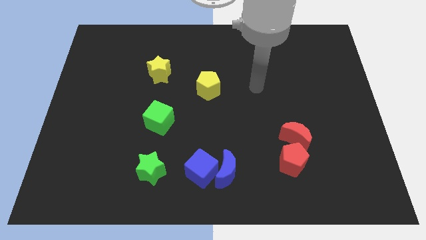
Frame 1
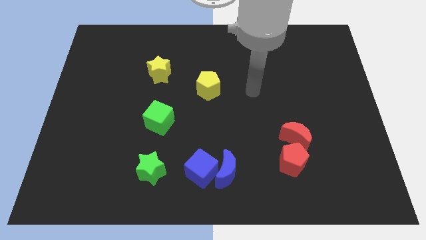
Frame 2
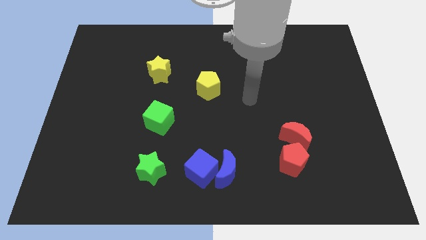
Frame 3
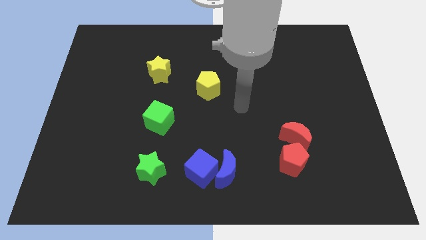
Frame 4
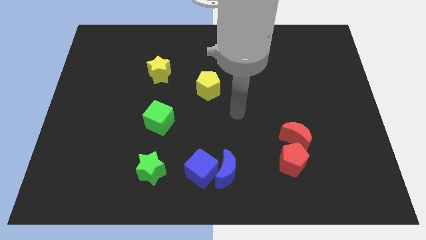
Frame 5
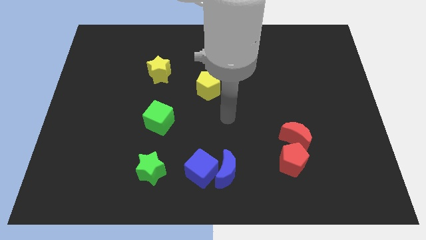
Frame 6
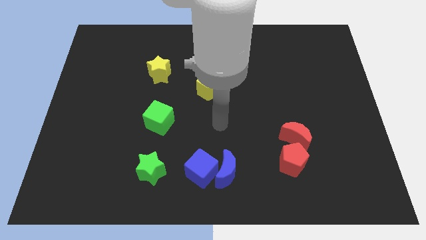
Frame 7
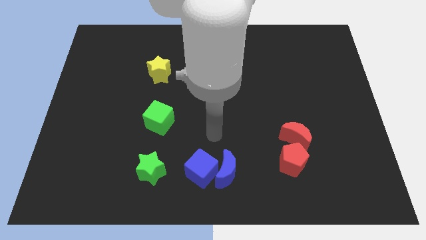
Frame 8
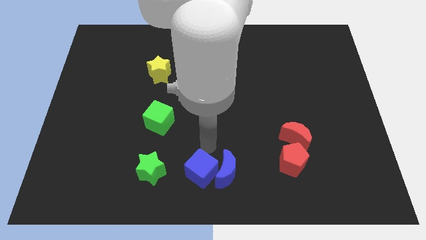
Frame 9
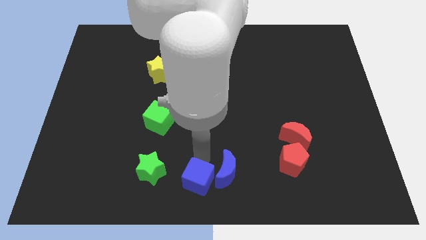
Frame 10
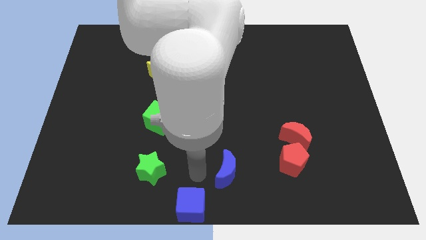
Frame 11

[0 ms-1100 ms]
move the blue moon away from the blue cube

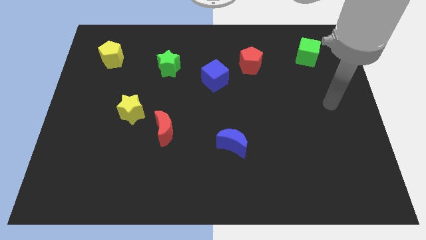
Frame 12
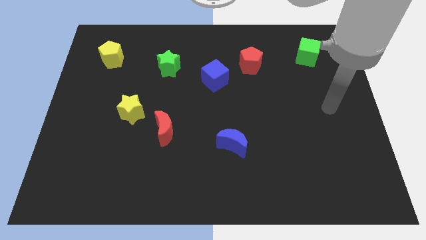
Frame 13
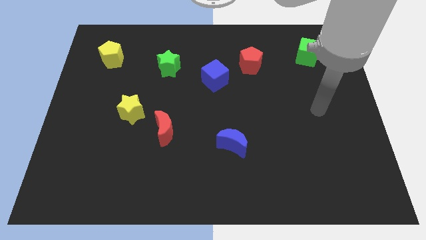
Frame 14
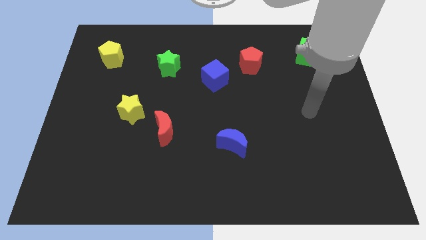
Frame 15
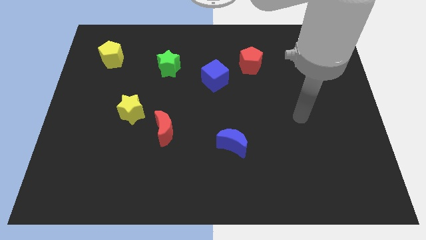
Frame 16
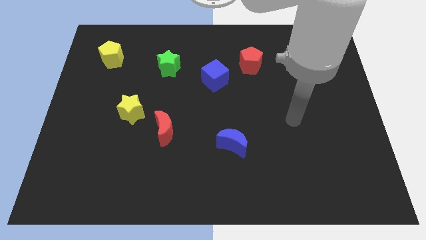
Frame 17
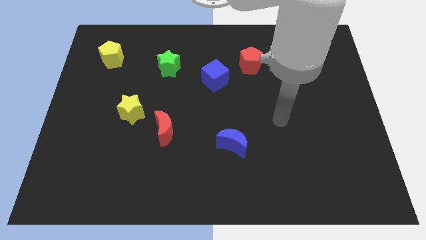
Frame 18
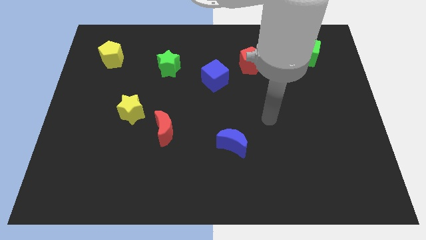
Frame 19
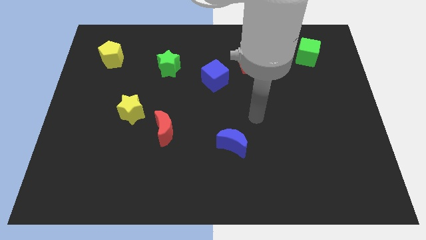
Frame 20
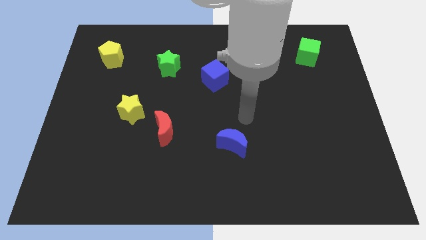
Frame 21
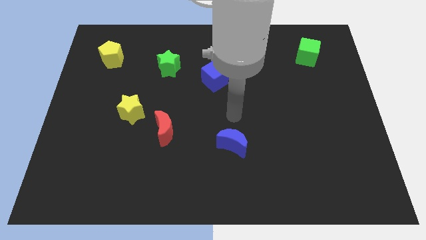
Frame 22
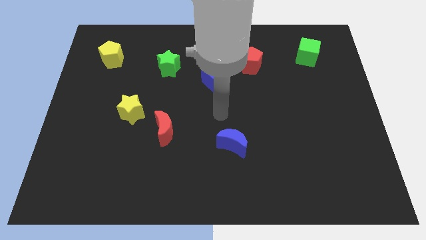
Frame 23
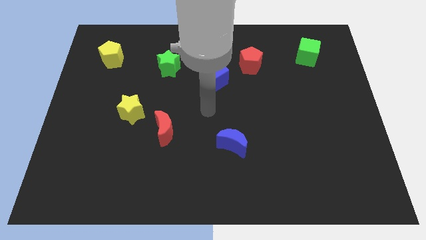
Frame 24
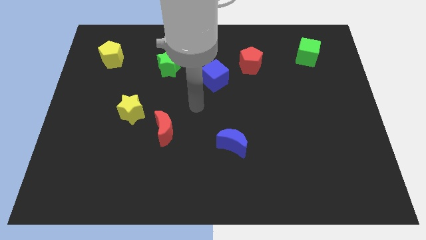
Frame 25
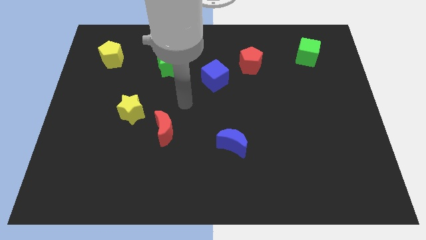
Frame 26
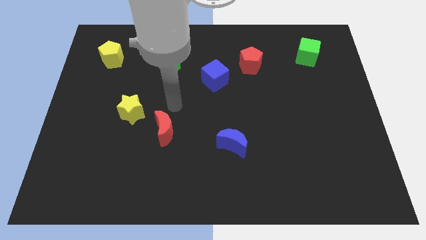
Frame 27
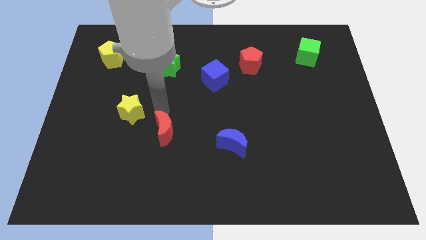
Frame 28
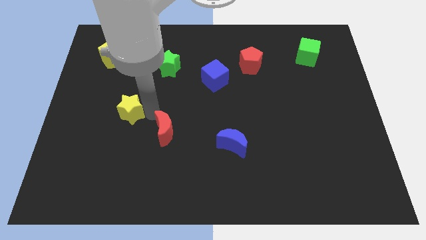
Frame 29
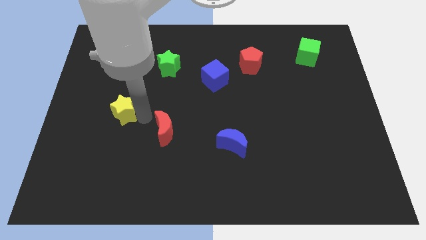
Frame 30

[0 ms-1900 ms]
separate the red moon from the yellow star

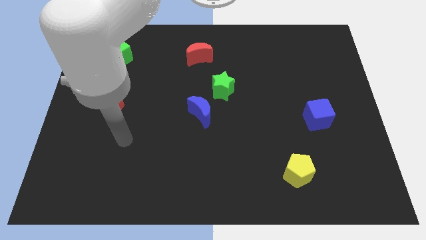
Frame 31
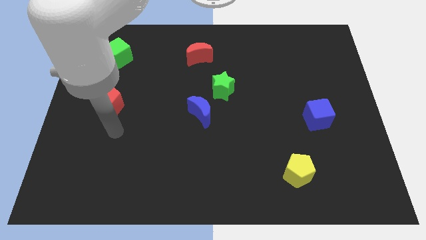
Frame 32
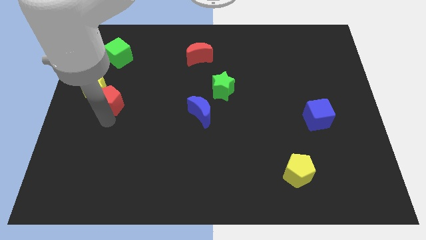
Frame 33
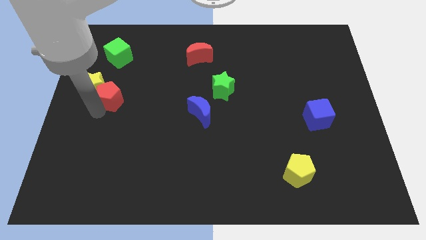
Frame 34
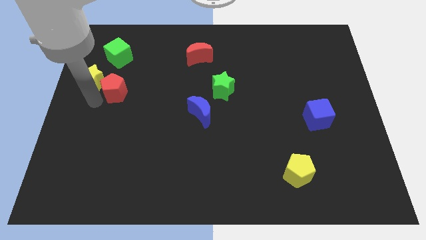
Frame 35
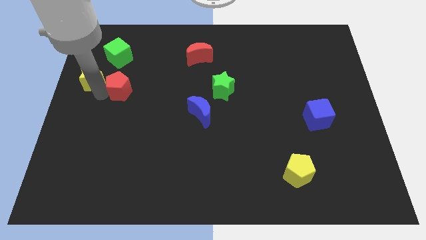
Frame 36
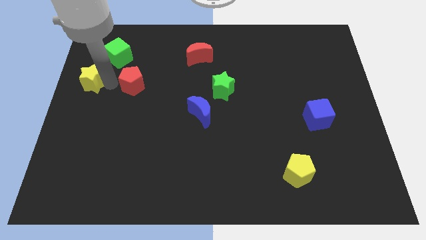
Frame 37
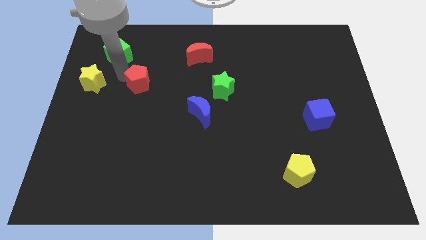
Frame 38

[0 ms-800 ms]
separate the red pentagon from the yellow star

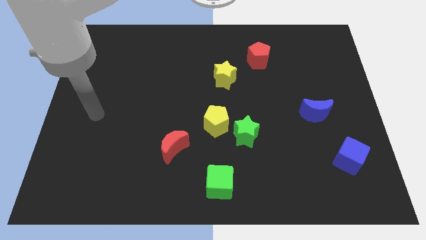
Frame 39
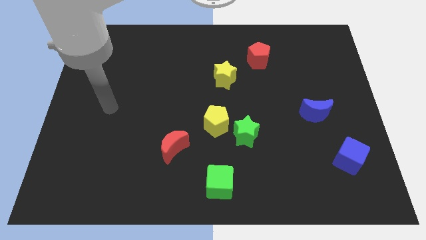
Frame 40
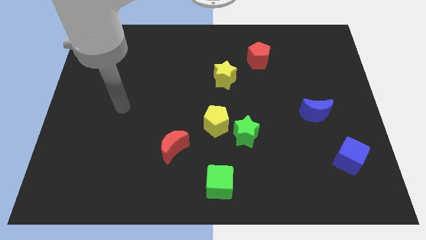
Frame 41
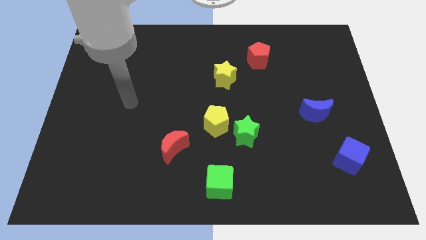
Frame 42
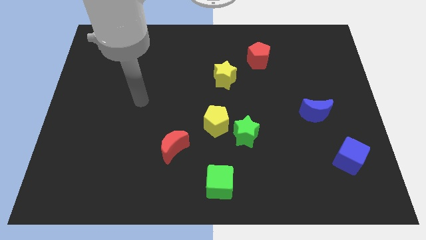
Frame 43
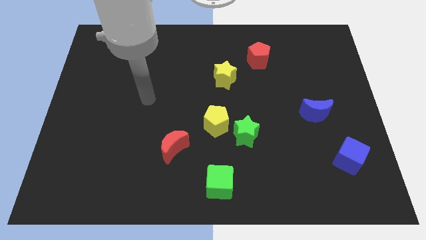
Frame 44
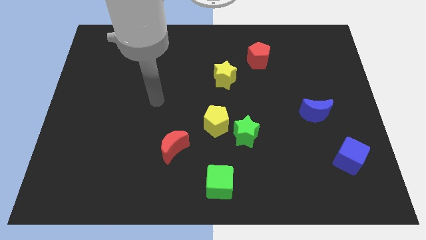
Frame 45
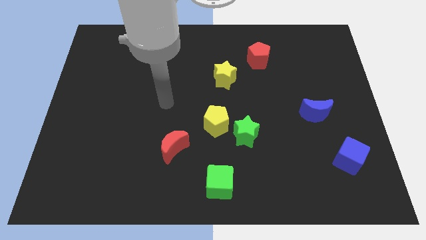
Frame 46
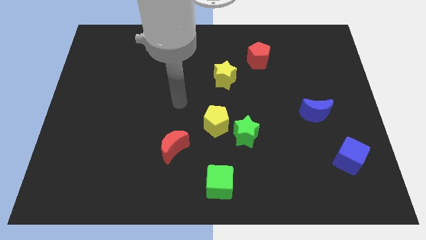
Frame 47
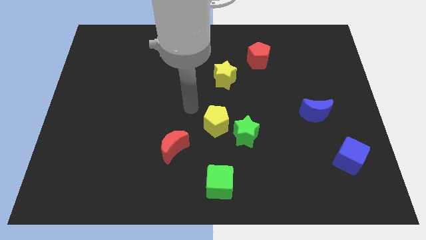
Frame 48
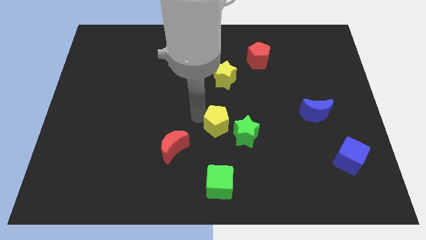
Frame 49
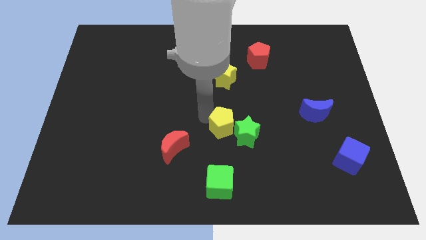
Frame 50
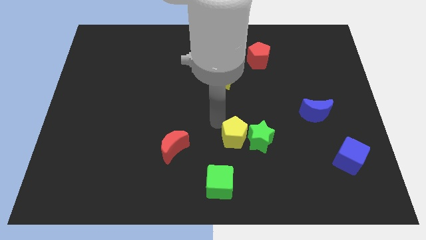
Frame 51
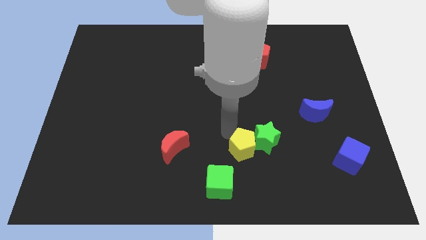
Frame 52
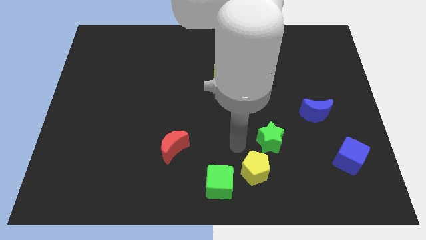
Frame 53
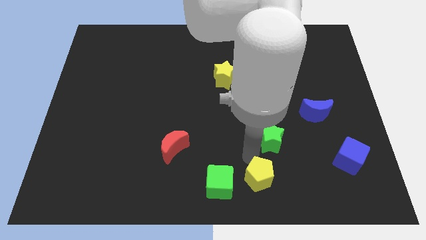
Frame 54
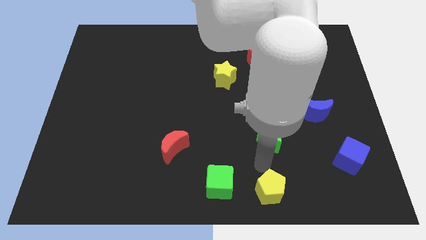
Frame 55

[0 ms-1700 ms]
separate the green star from the yellow pentagon

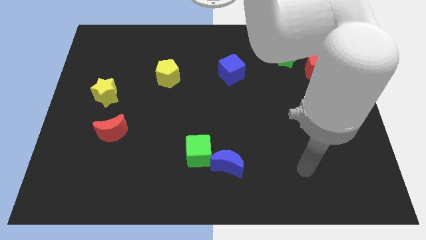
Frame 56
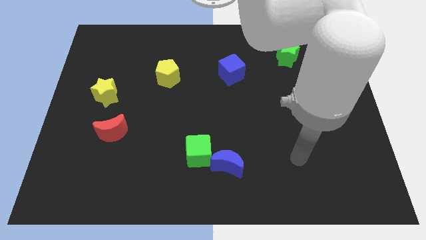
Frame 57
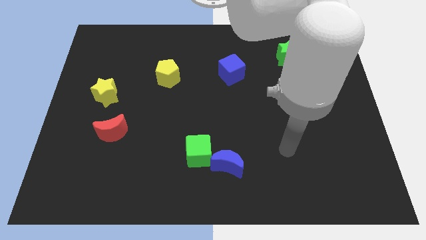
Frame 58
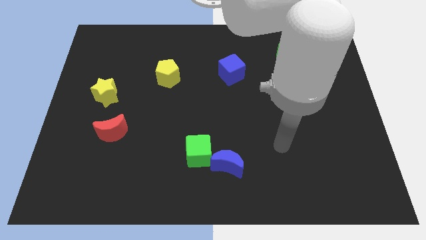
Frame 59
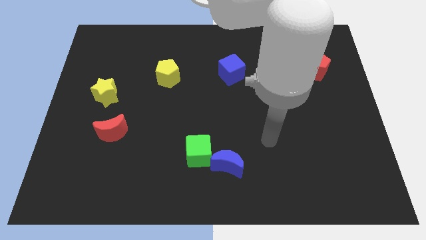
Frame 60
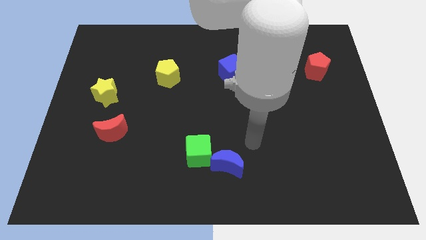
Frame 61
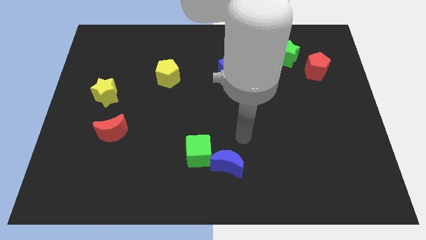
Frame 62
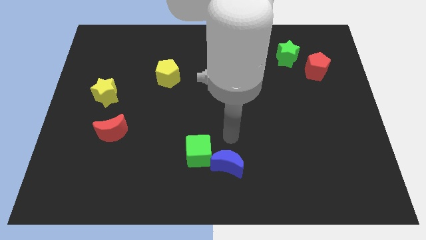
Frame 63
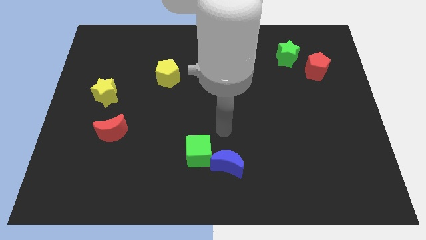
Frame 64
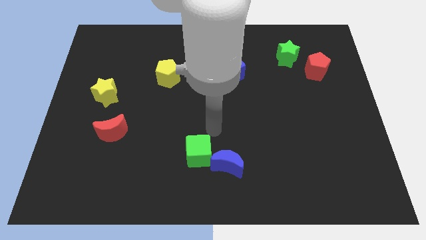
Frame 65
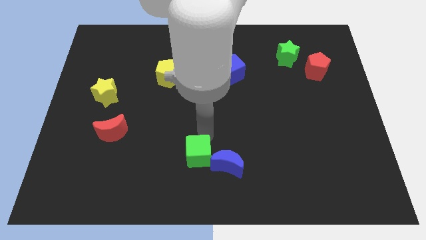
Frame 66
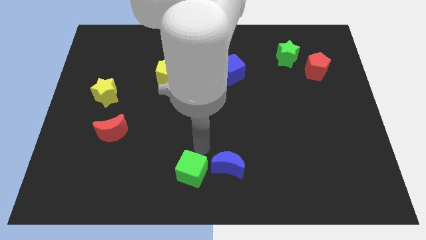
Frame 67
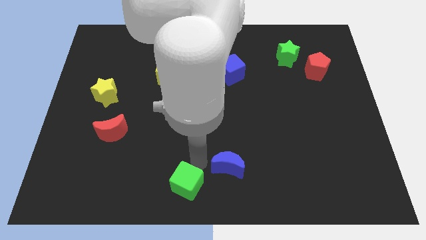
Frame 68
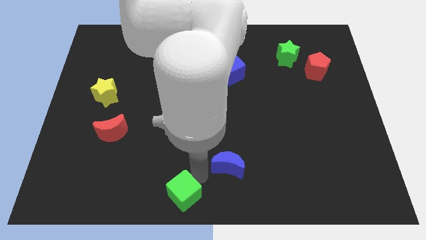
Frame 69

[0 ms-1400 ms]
move the blue moon away from the green cube

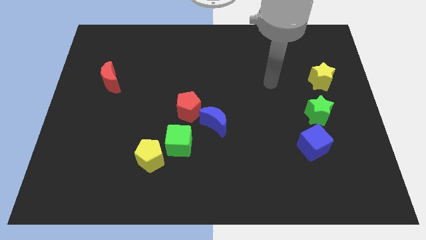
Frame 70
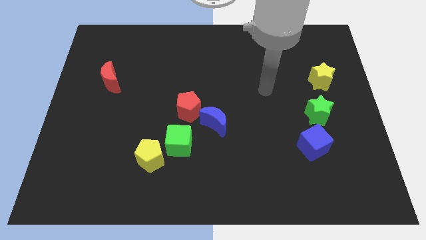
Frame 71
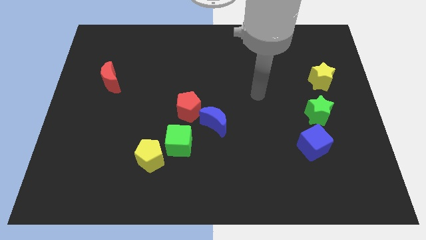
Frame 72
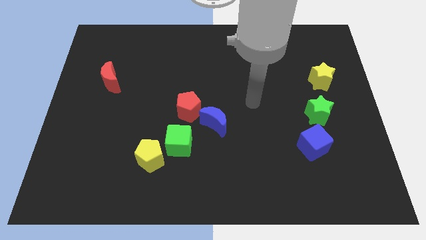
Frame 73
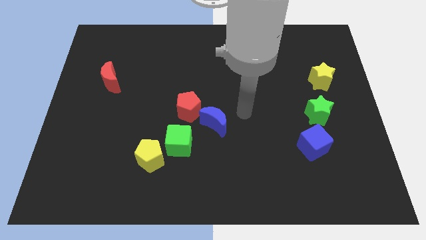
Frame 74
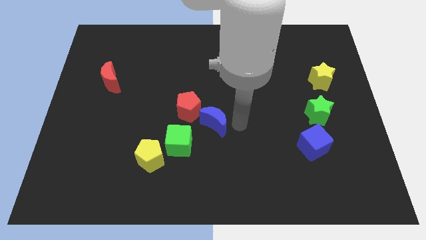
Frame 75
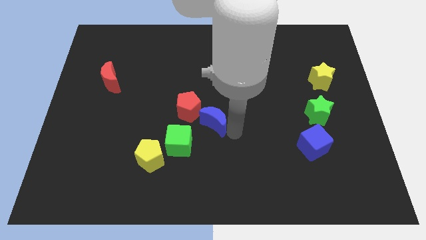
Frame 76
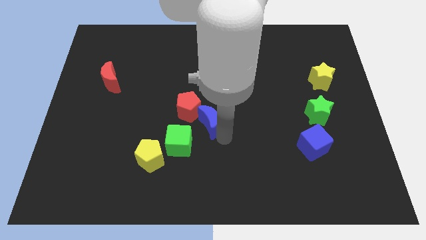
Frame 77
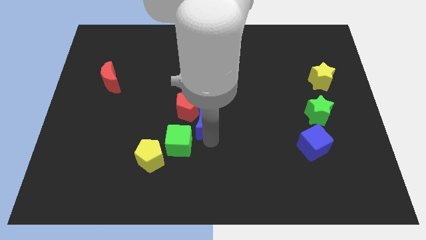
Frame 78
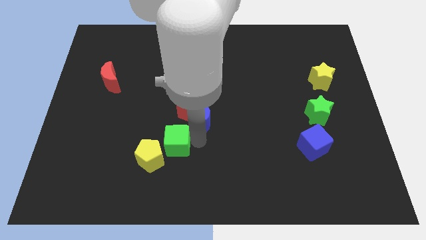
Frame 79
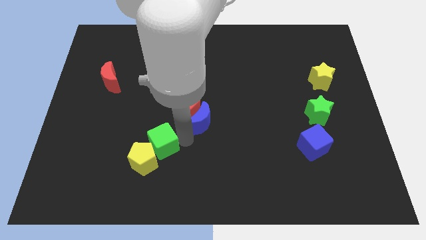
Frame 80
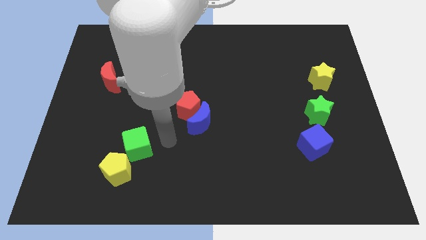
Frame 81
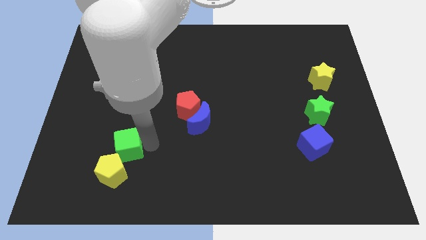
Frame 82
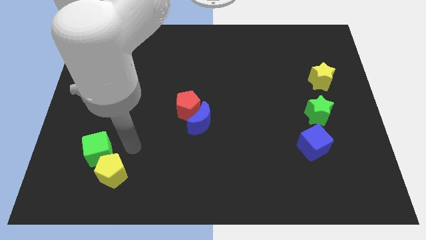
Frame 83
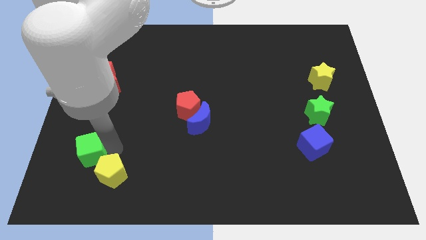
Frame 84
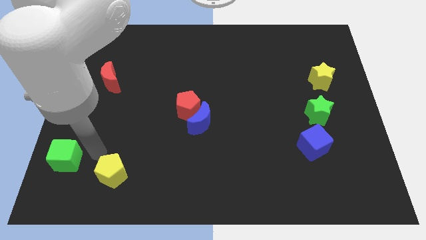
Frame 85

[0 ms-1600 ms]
pull the yellow pentagon apart from the green cube

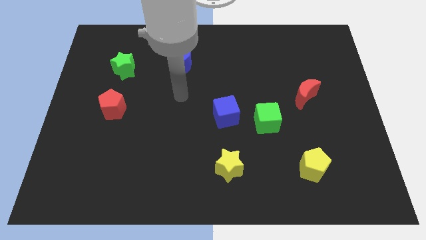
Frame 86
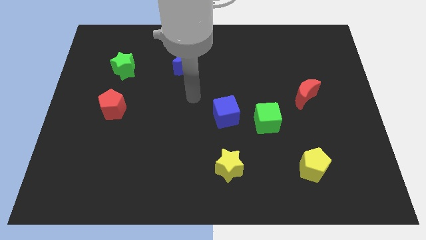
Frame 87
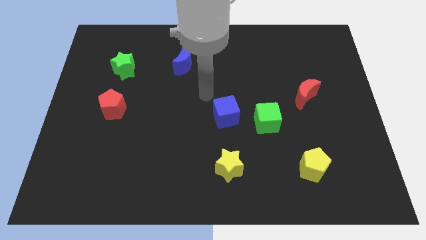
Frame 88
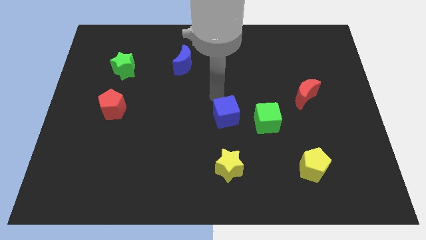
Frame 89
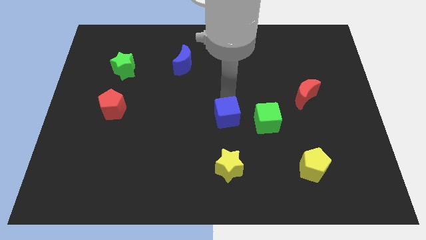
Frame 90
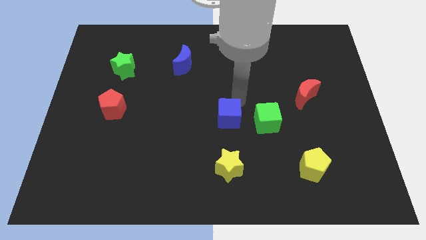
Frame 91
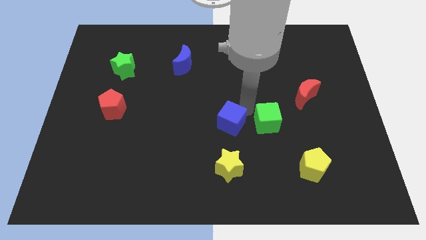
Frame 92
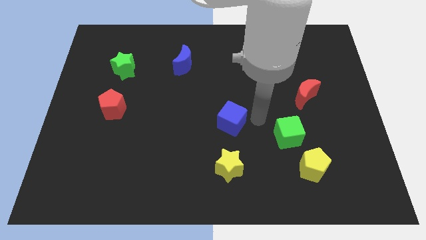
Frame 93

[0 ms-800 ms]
pull the blue cube apart from the green cube

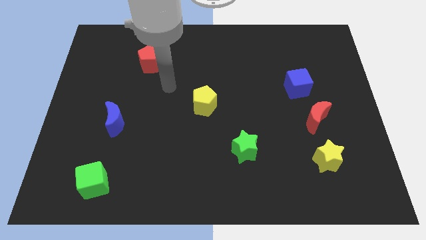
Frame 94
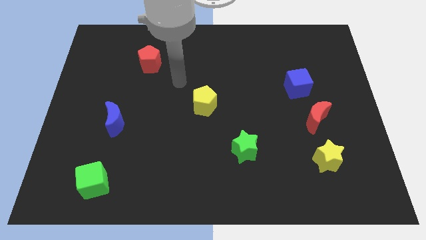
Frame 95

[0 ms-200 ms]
separate the red moon from the blue cube

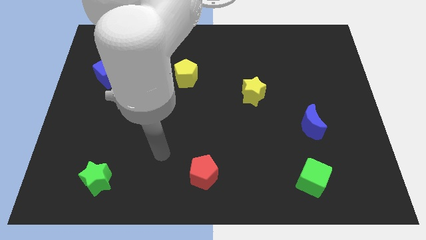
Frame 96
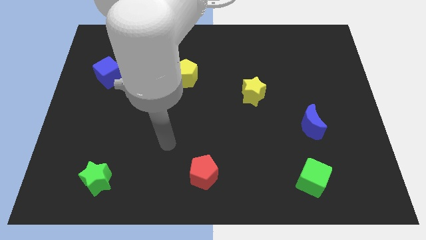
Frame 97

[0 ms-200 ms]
separate the red moon from the yellow pentagon
